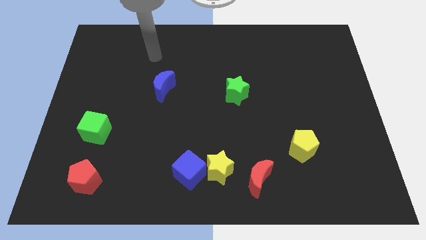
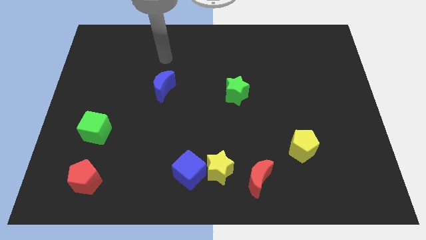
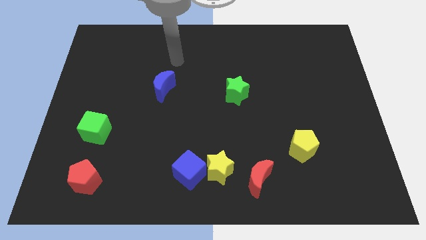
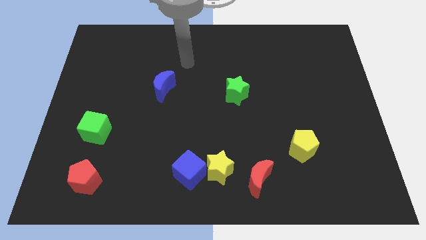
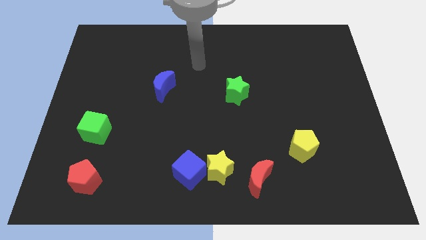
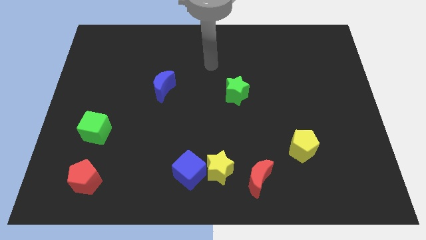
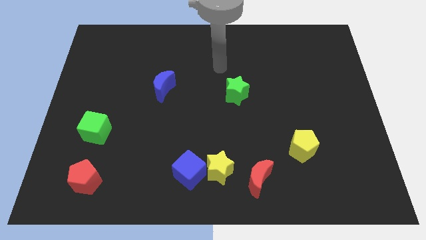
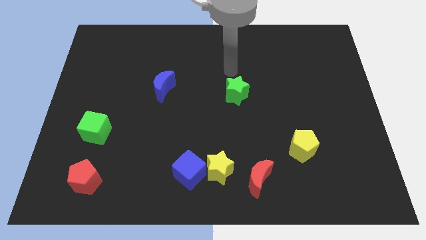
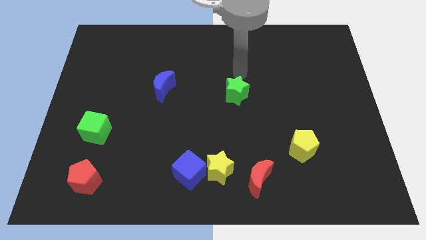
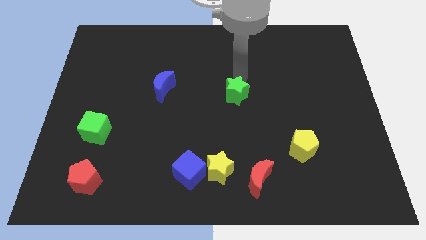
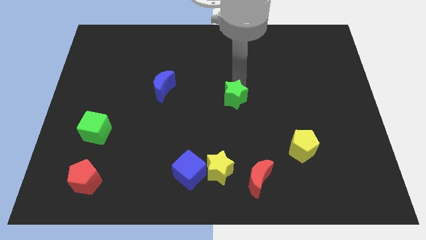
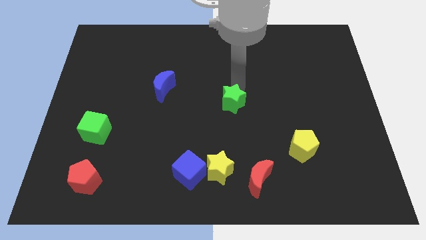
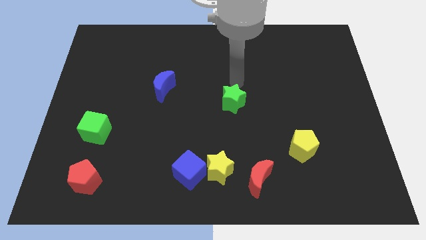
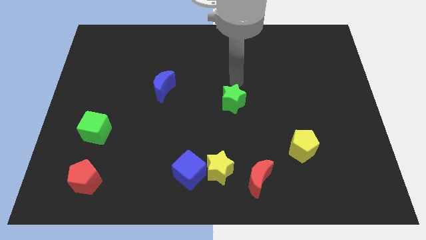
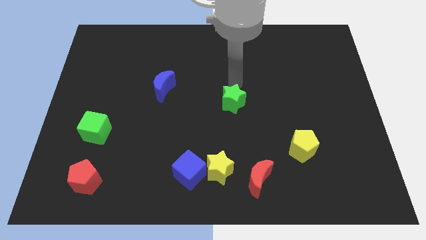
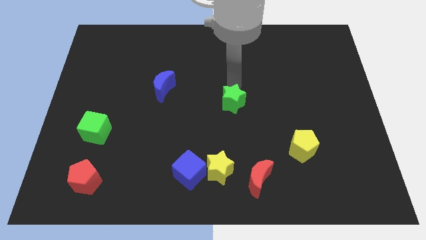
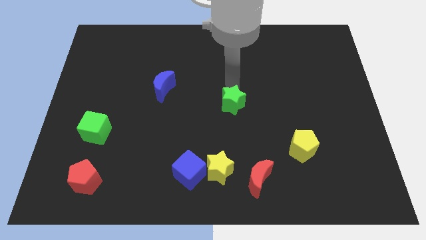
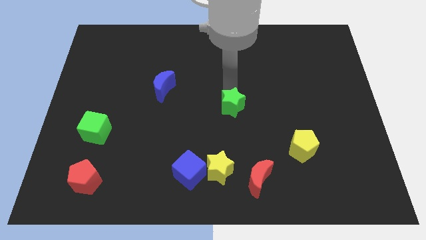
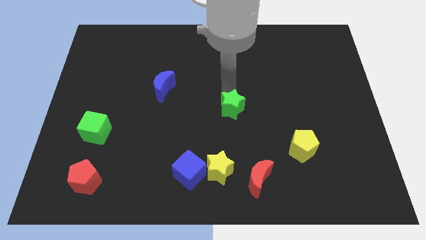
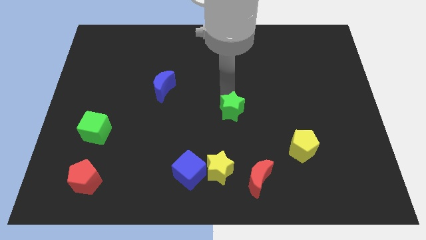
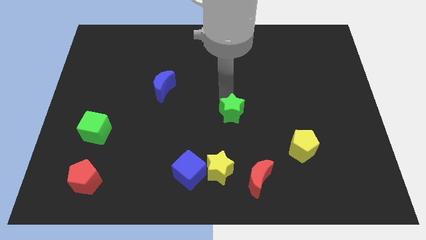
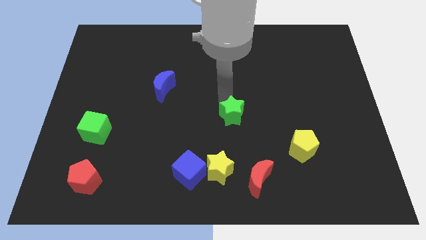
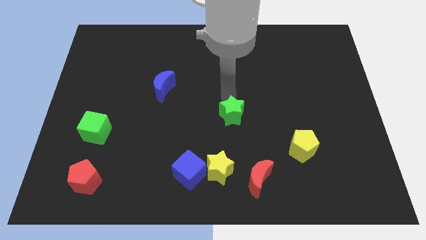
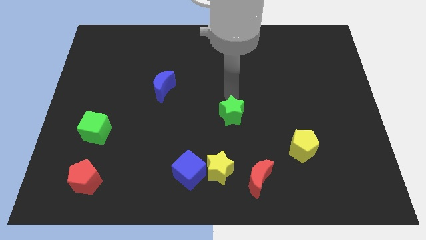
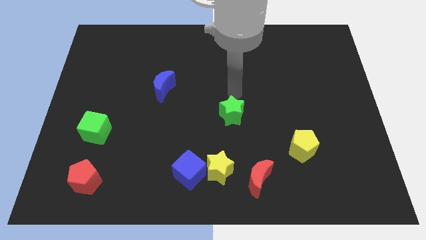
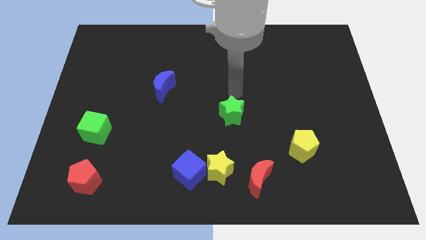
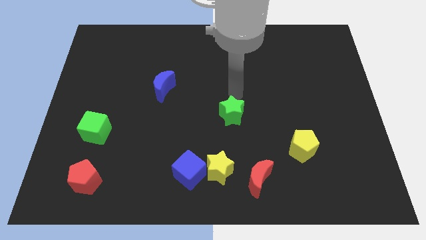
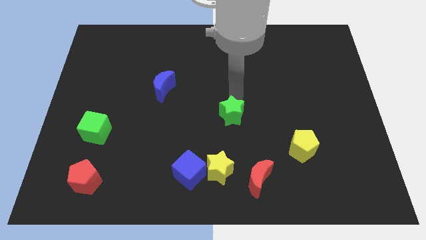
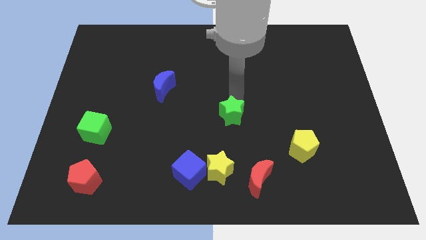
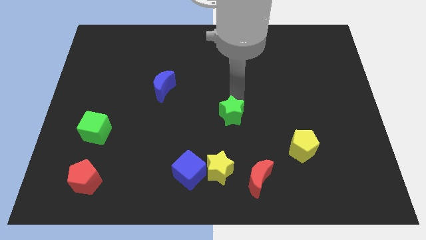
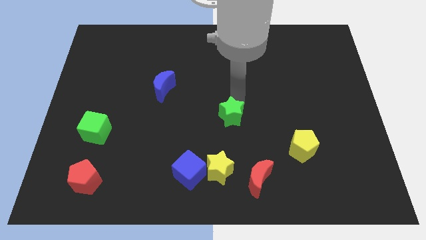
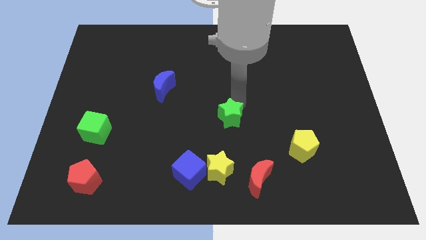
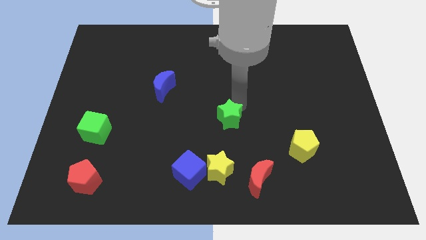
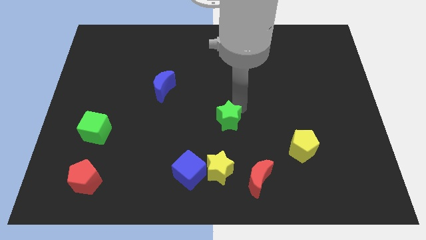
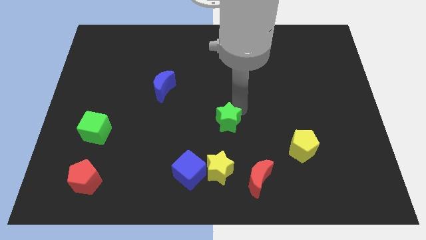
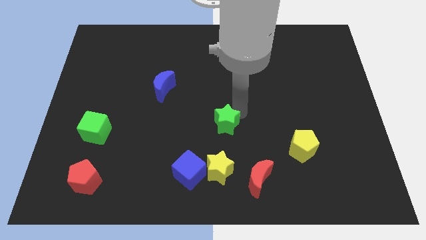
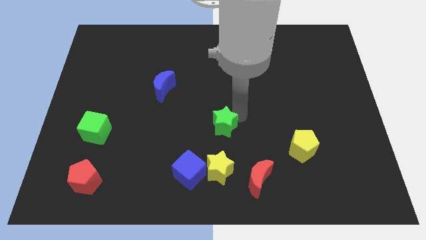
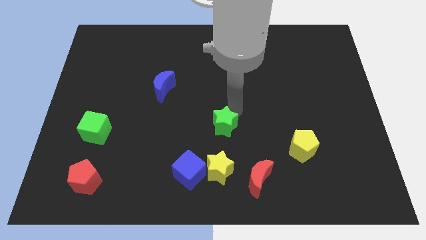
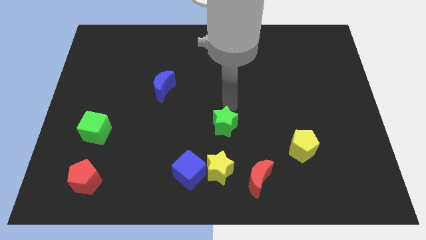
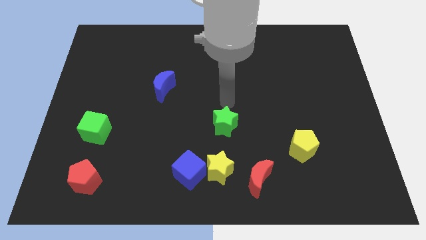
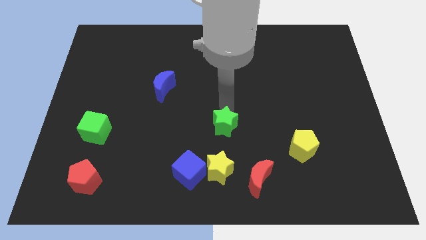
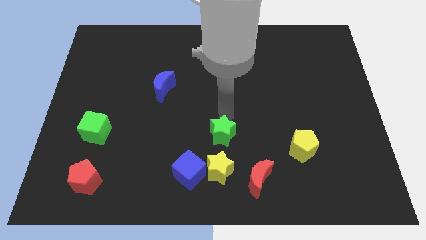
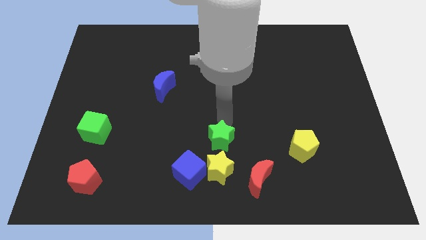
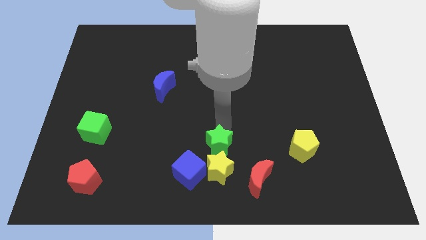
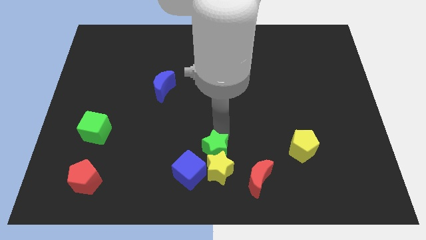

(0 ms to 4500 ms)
push the green star to the yellow star

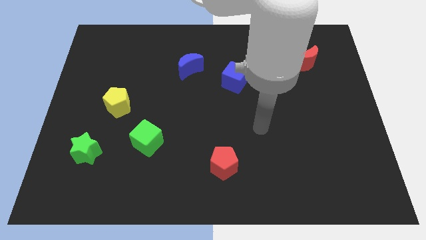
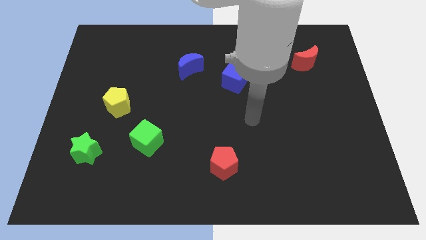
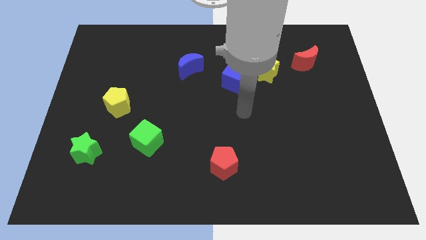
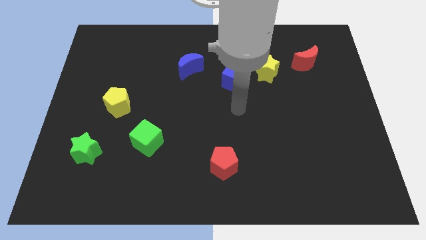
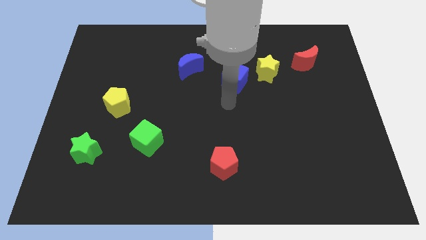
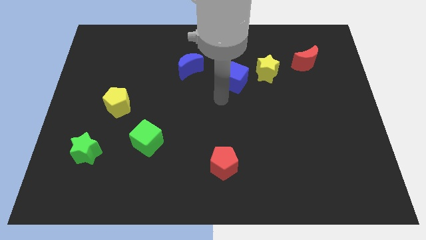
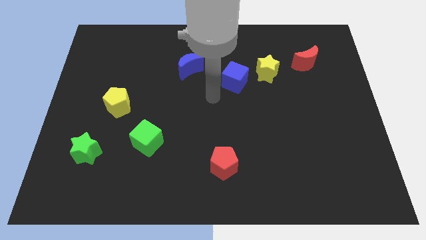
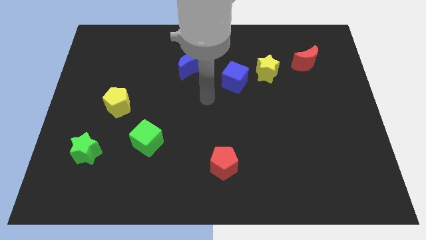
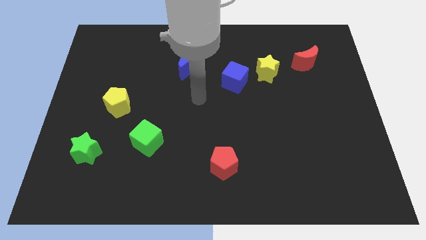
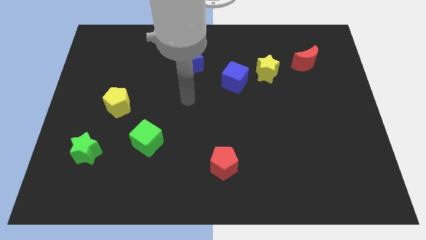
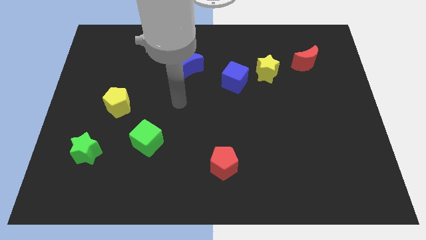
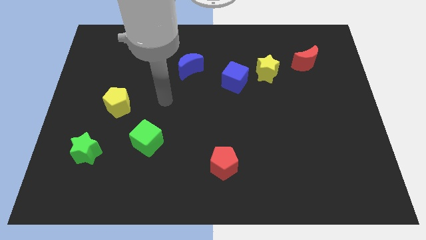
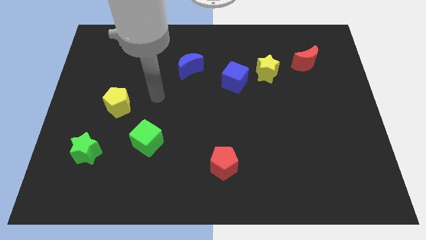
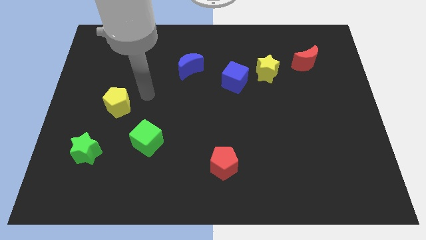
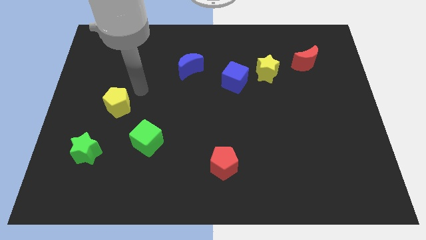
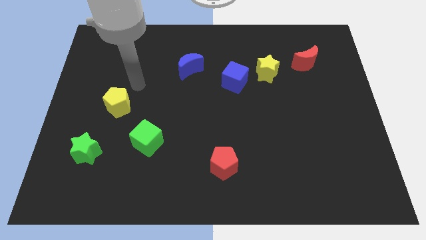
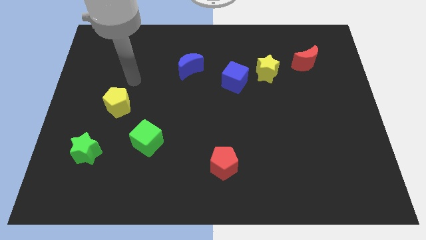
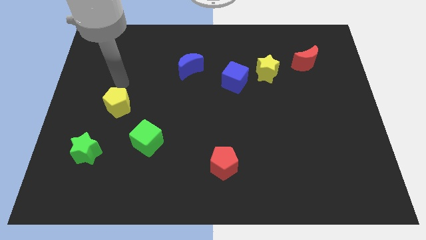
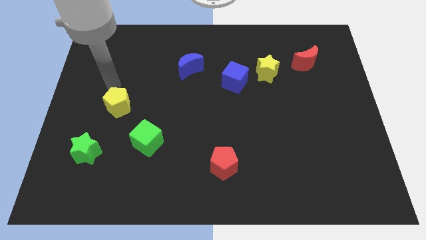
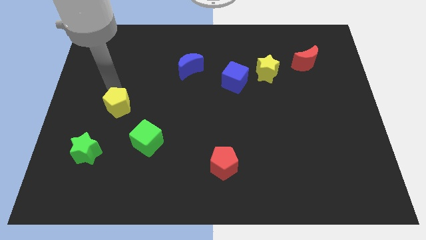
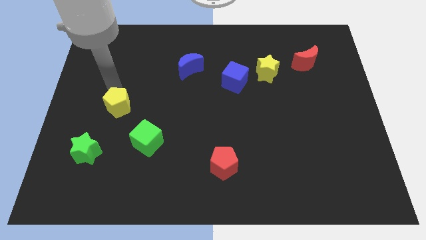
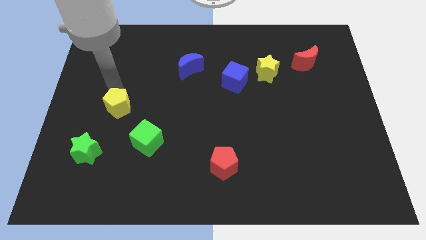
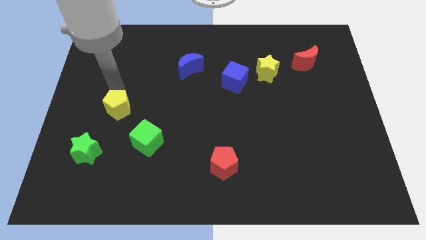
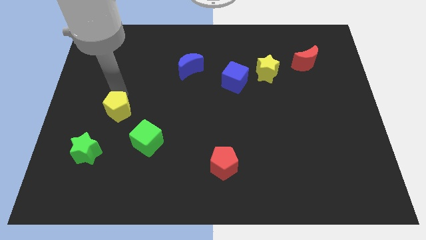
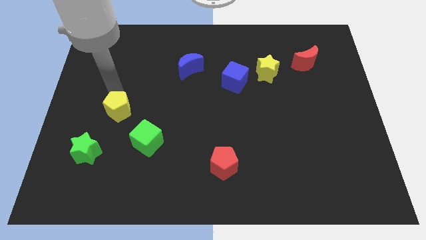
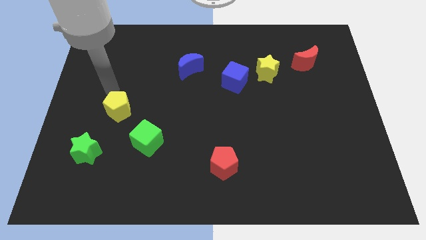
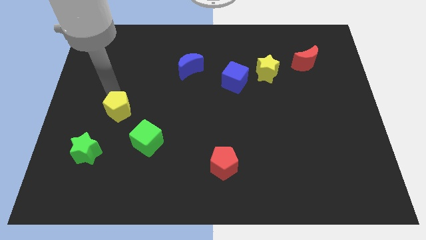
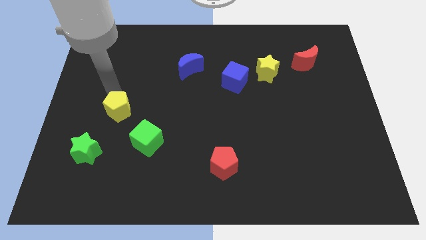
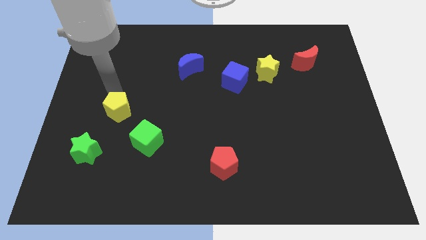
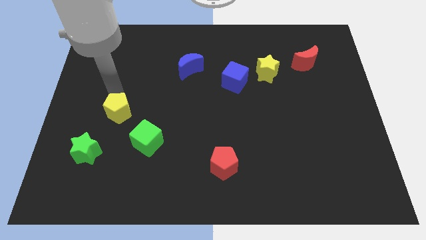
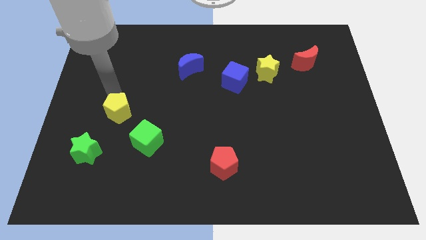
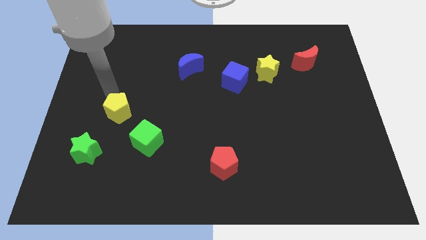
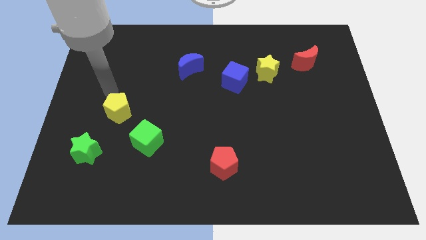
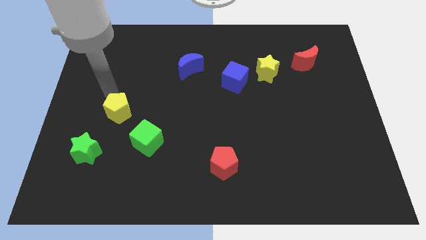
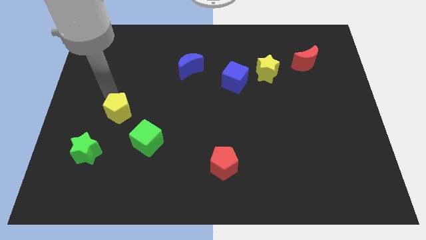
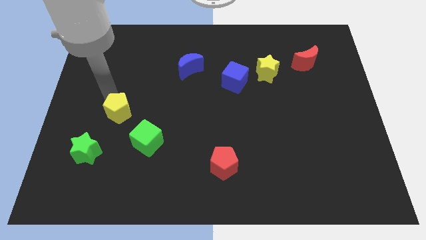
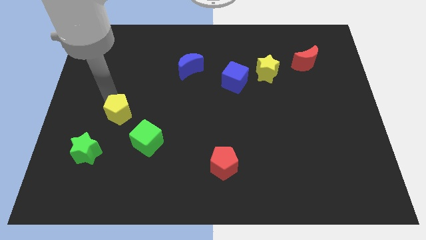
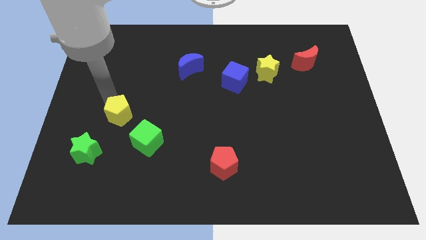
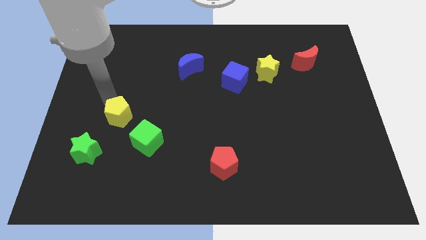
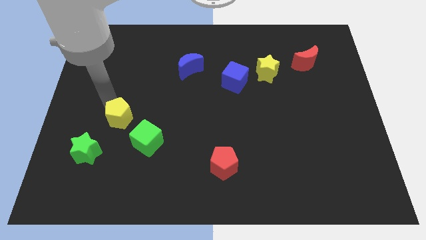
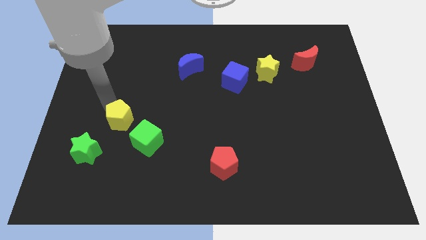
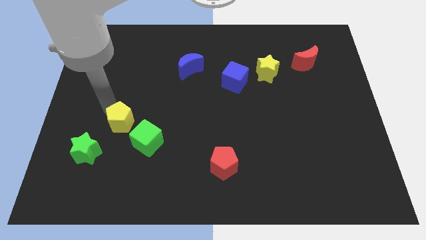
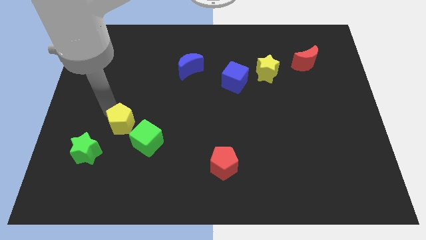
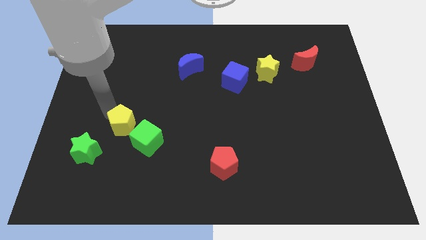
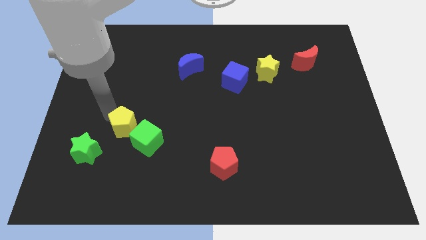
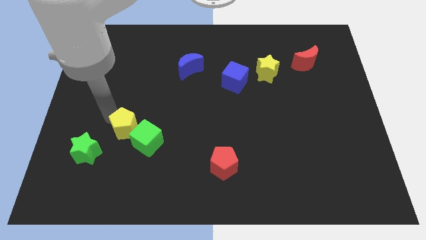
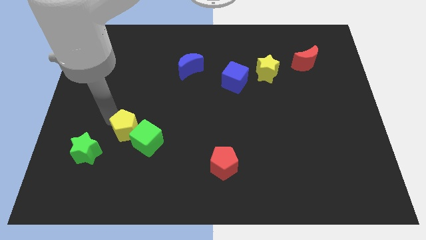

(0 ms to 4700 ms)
push the yellow pentagon to the green cube
